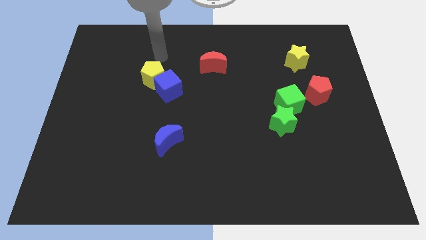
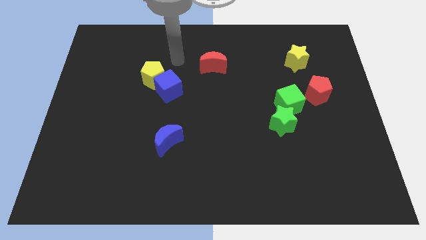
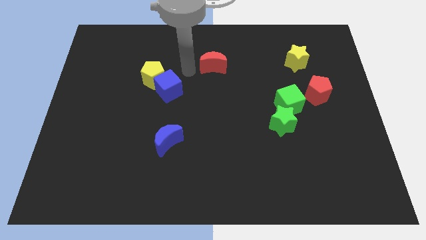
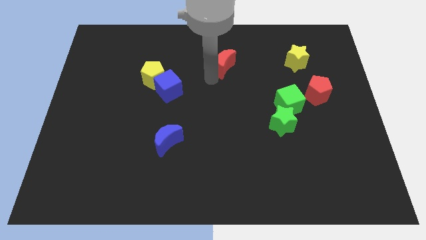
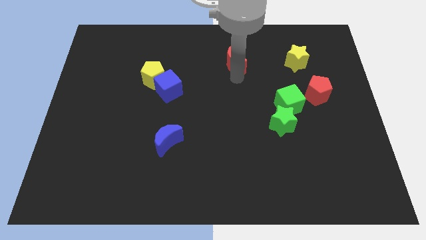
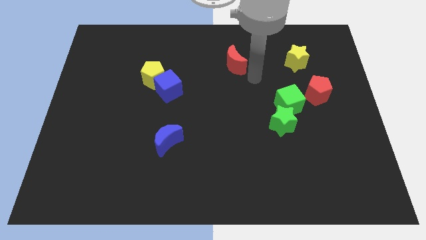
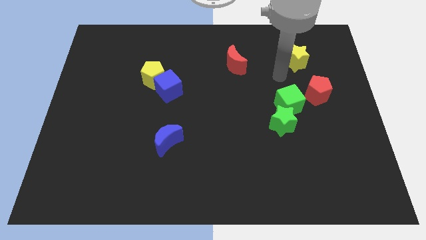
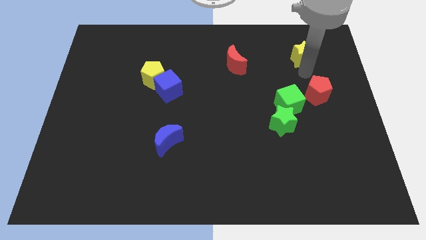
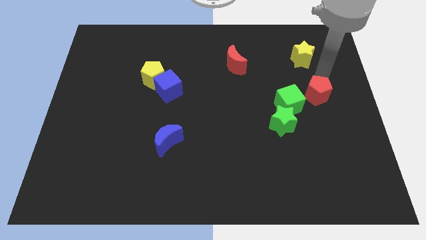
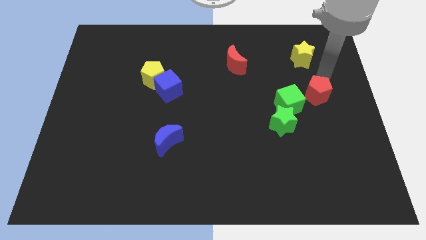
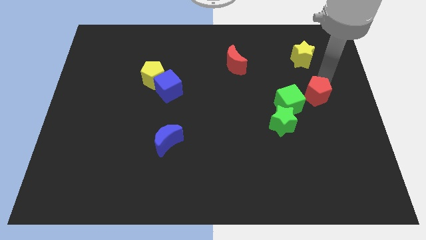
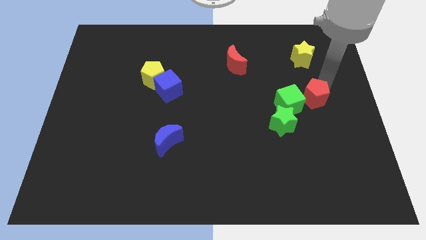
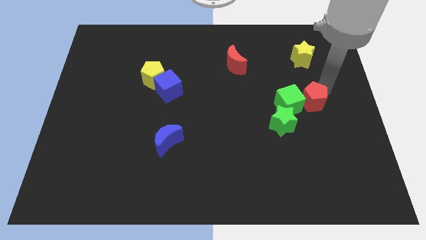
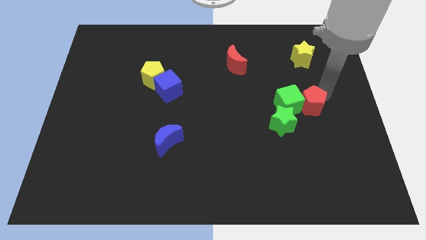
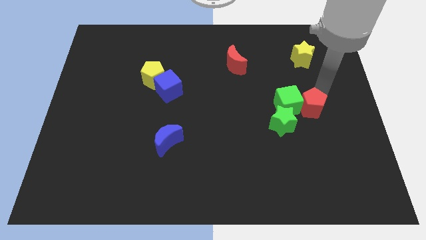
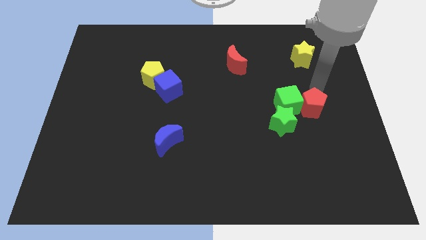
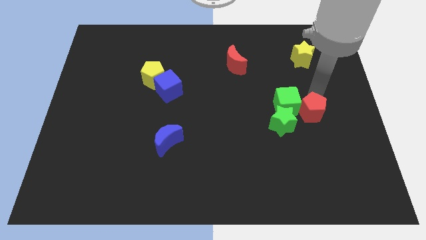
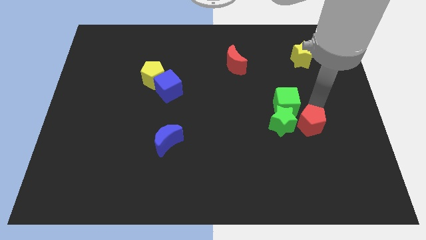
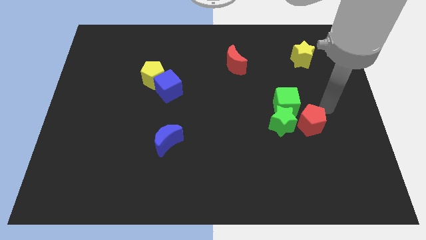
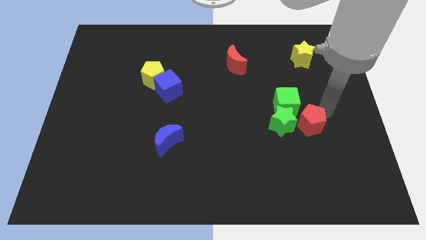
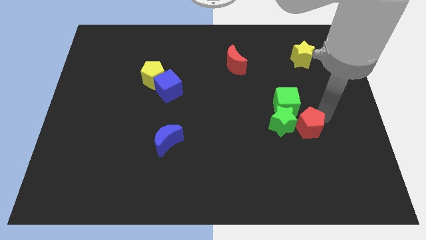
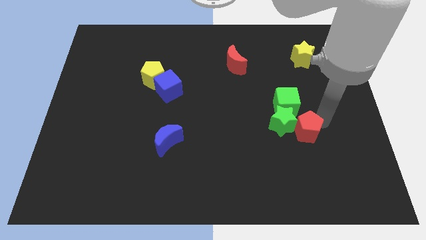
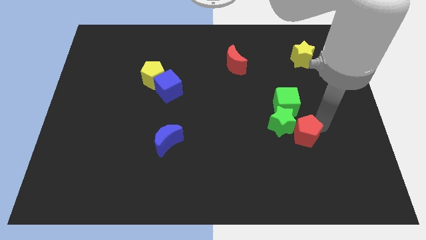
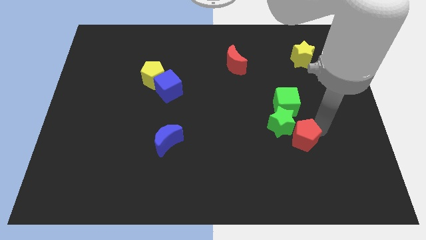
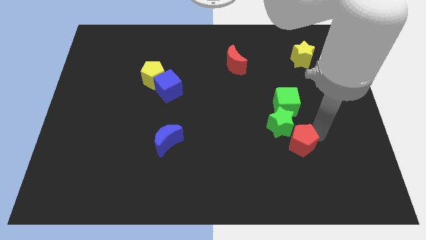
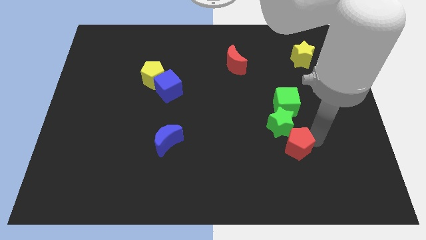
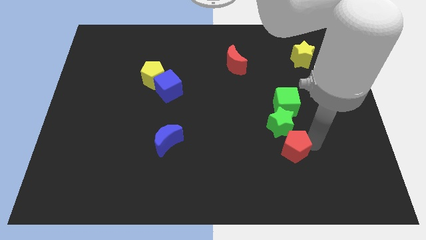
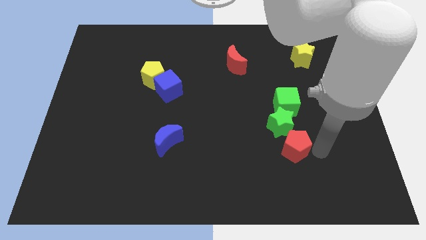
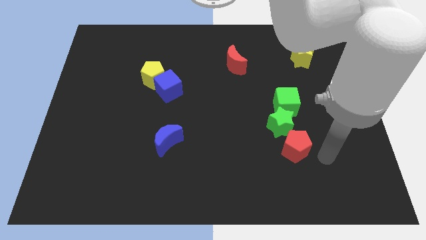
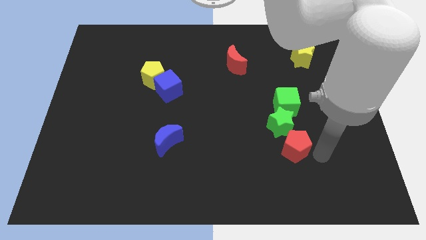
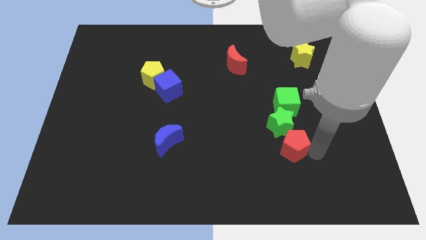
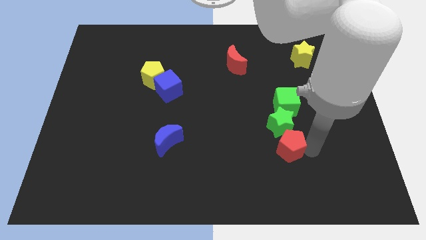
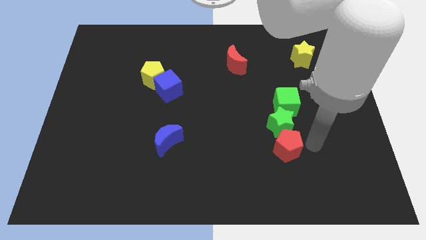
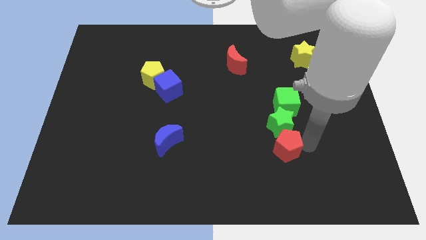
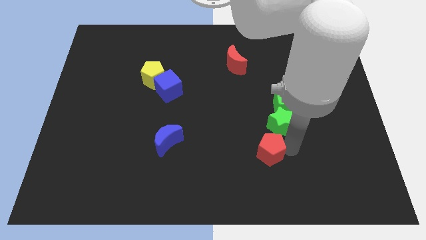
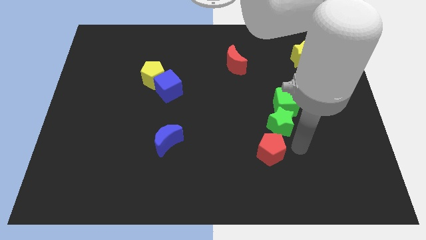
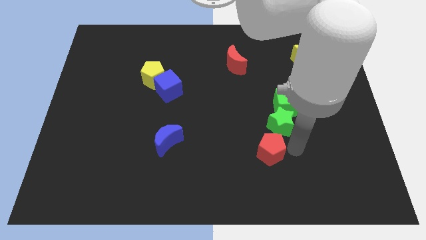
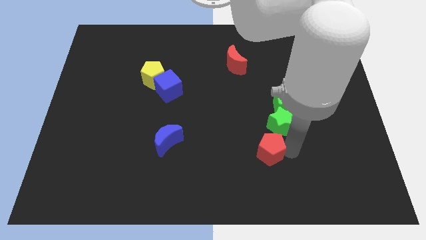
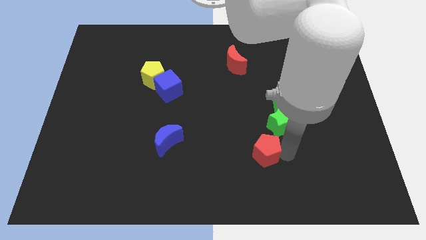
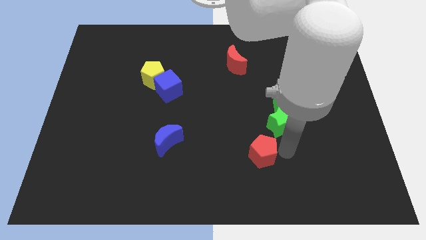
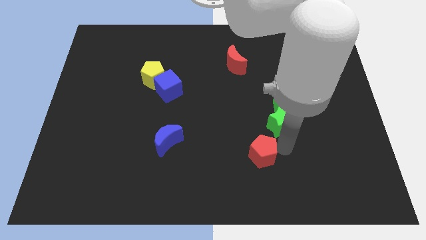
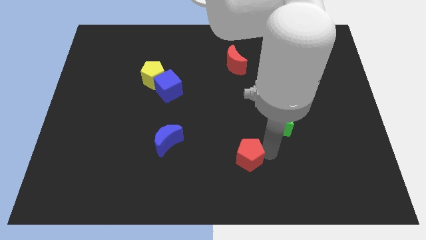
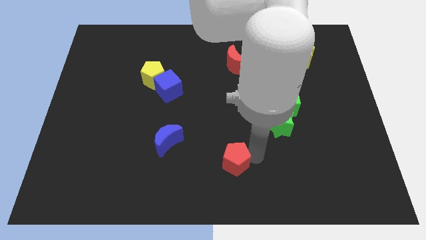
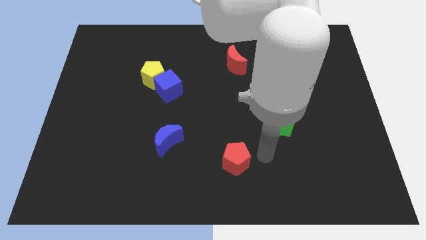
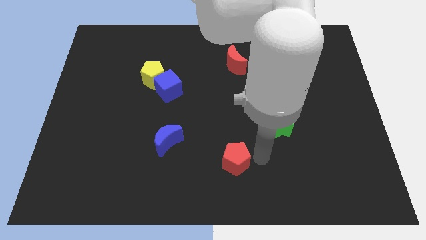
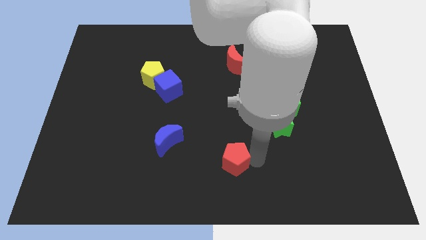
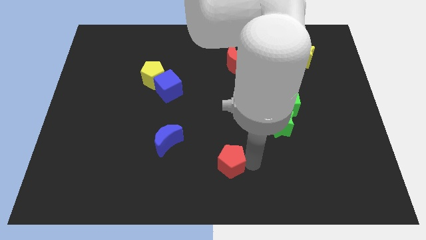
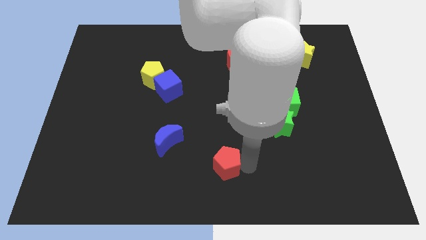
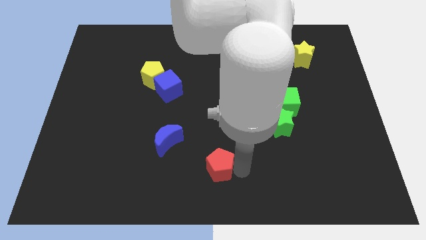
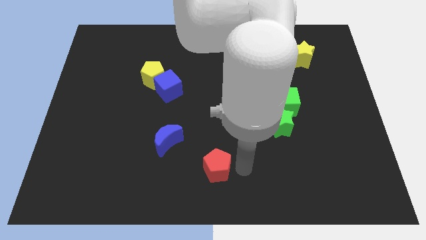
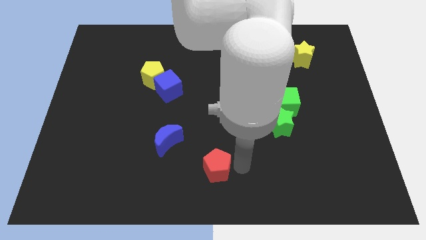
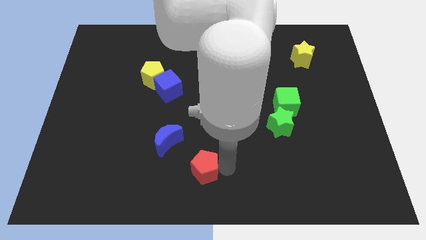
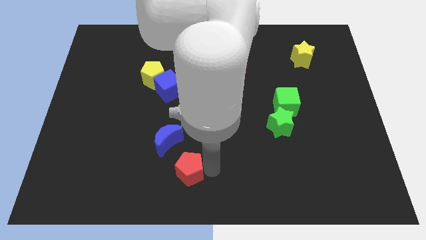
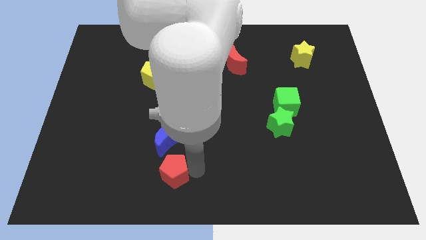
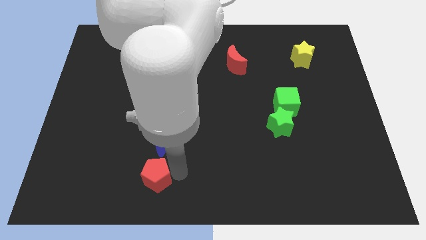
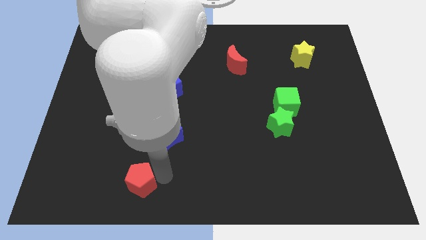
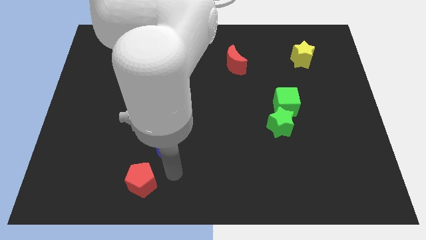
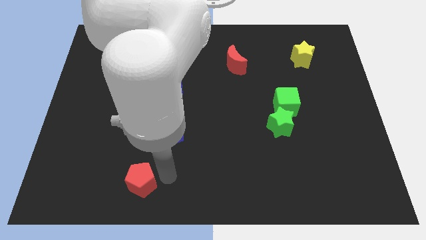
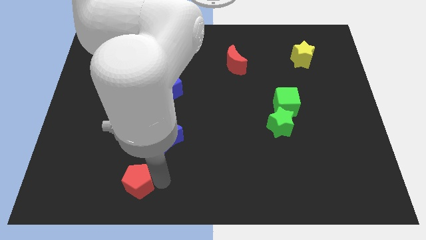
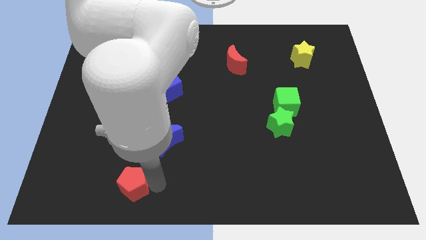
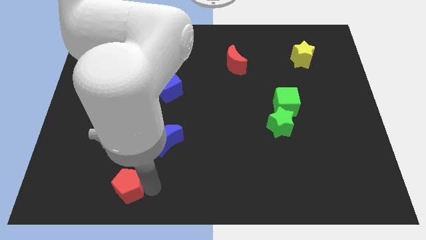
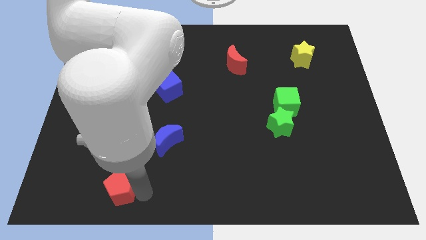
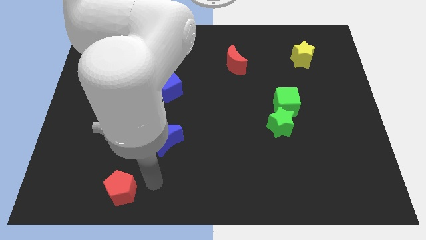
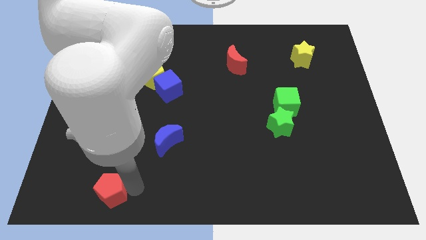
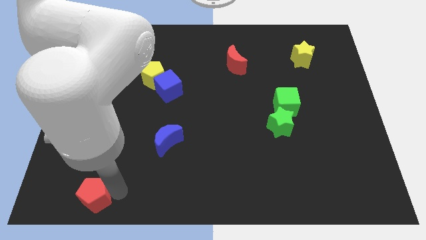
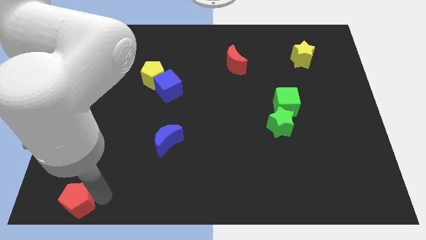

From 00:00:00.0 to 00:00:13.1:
move the red pentagon to the bottom left corner

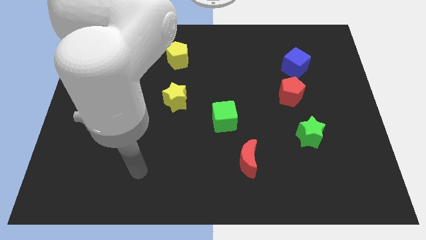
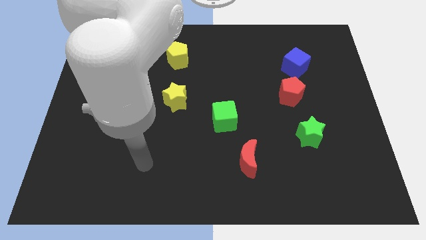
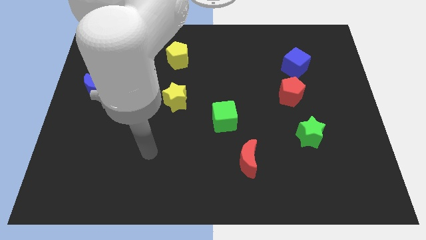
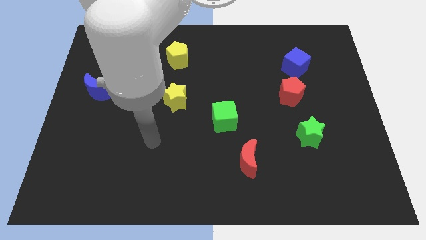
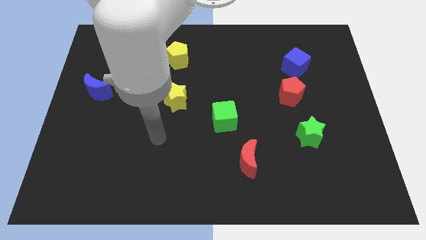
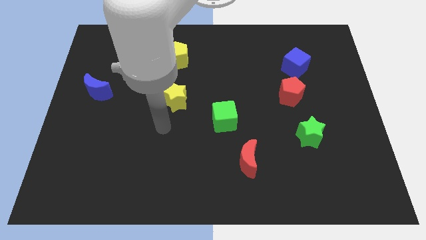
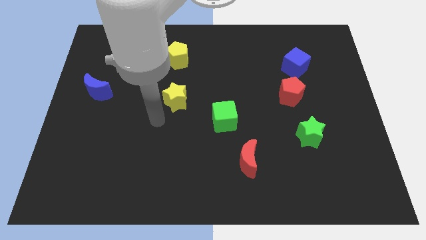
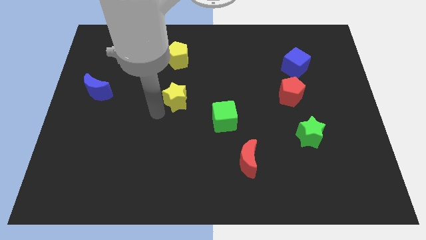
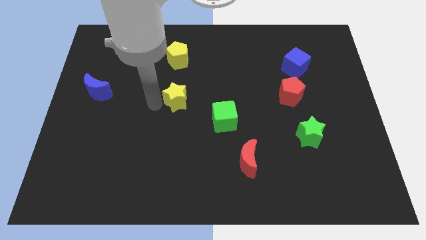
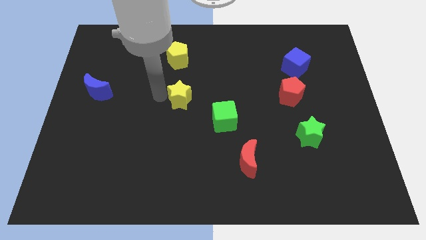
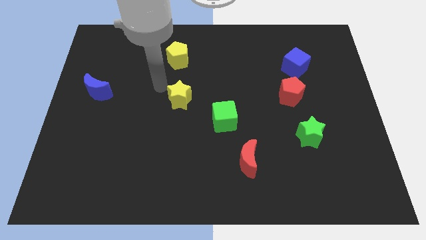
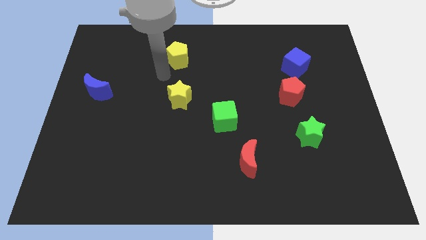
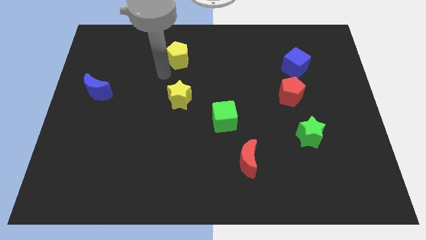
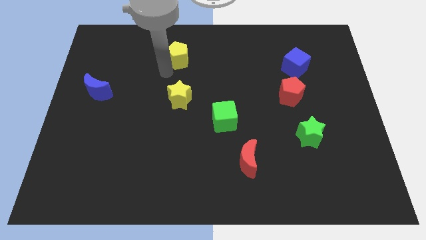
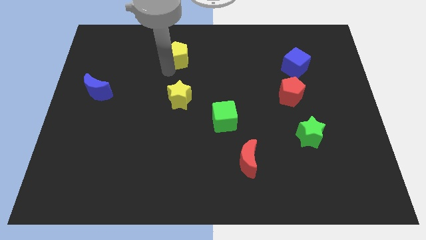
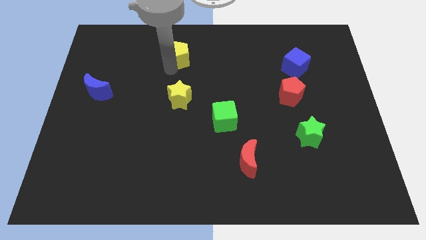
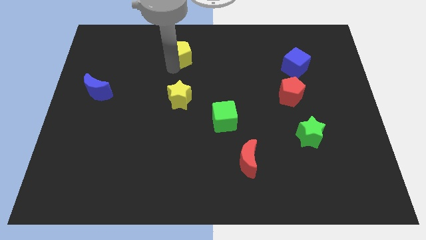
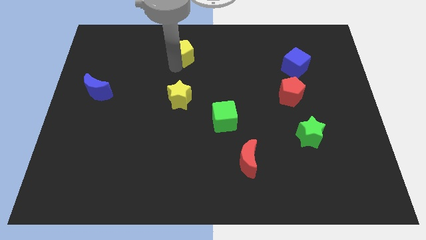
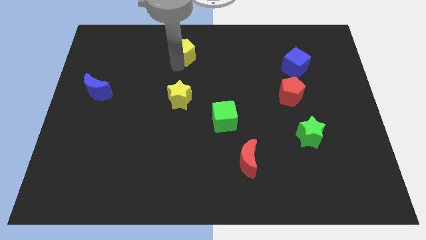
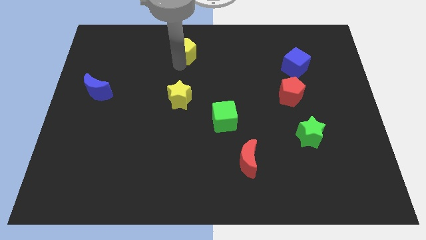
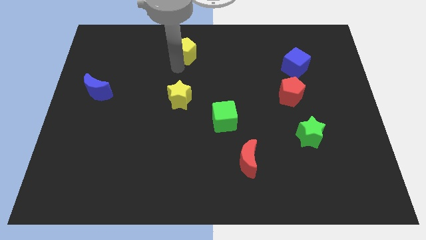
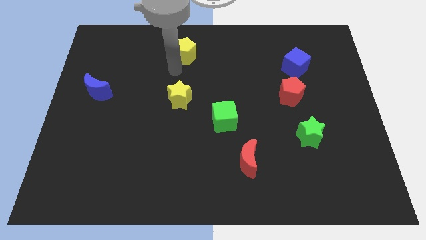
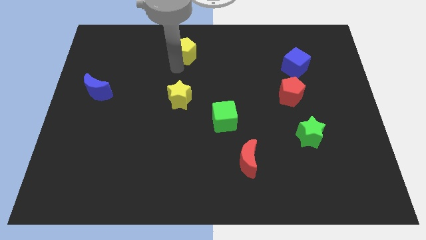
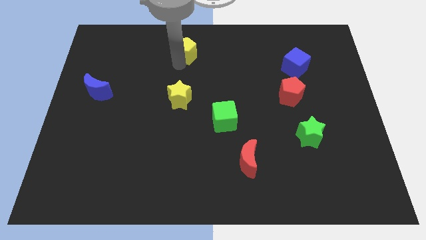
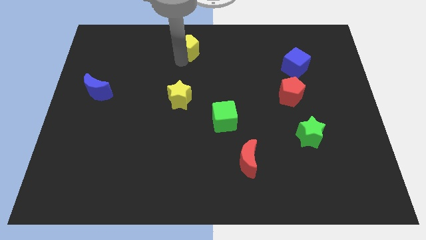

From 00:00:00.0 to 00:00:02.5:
push the yellow pentagon to the top
